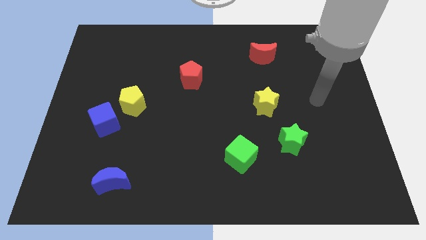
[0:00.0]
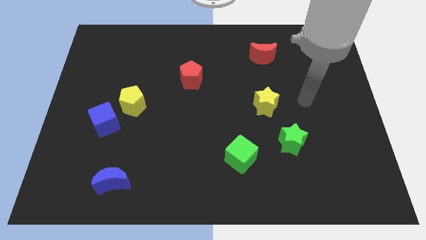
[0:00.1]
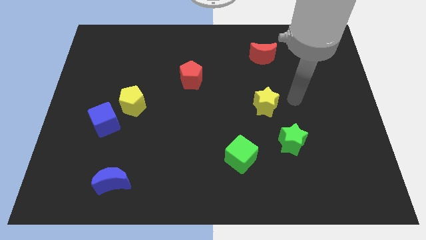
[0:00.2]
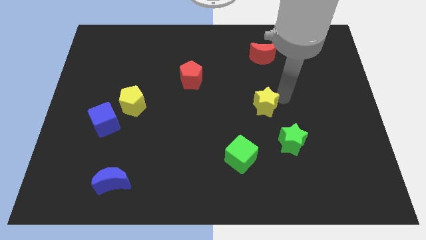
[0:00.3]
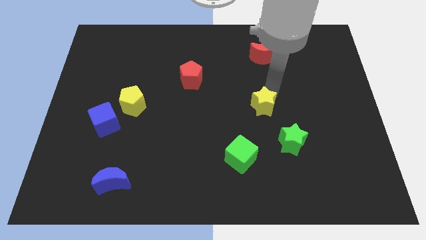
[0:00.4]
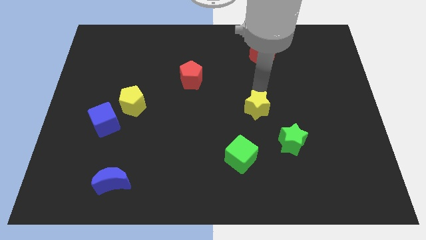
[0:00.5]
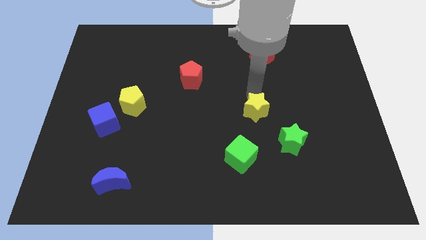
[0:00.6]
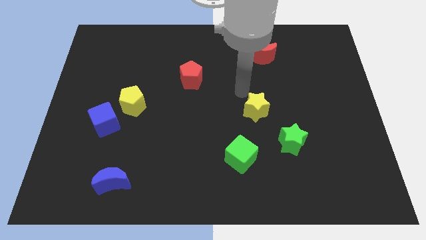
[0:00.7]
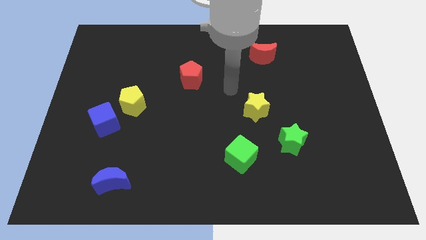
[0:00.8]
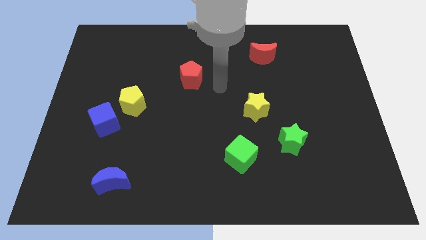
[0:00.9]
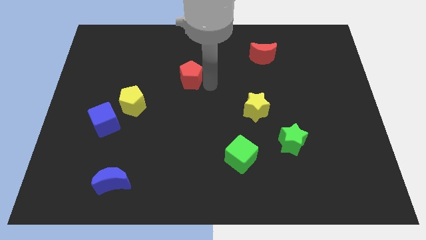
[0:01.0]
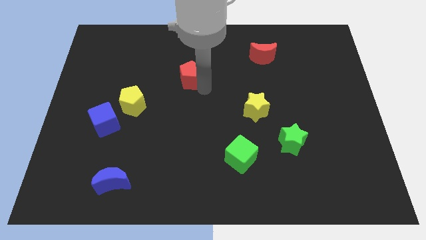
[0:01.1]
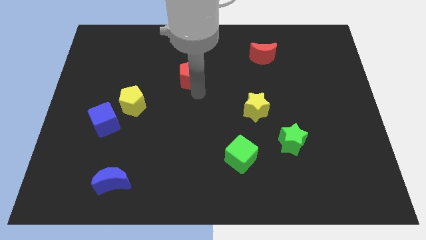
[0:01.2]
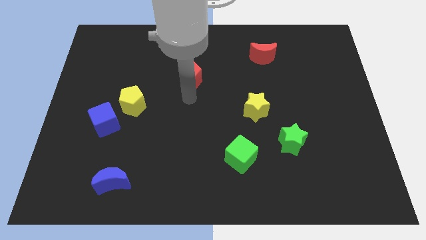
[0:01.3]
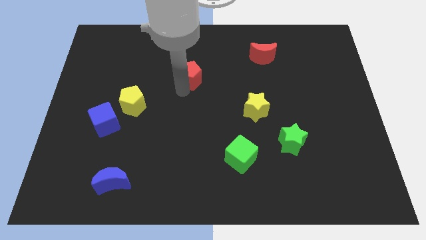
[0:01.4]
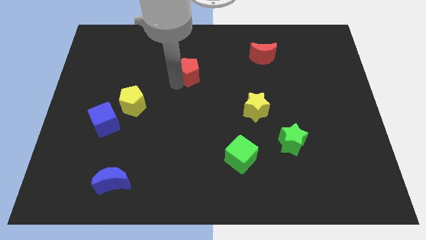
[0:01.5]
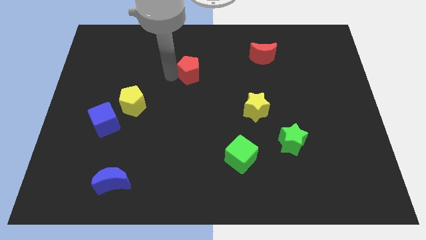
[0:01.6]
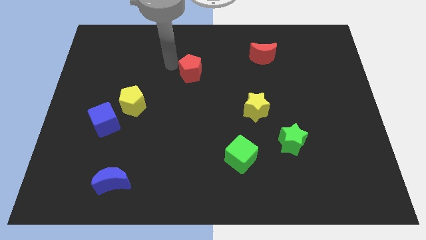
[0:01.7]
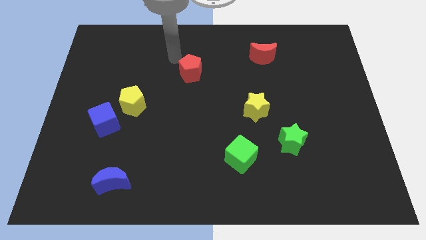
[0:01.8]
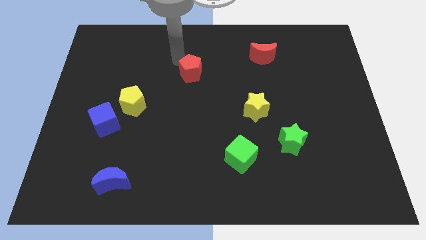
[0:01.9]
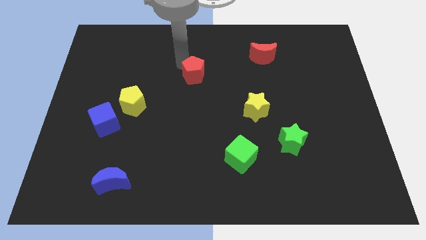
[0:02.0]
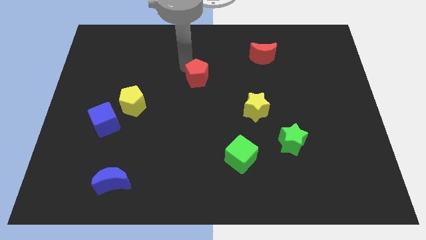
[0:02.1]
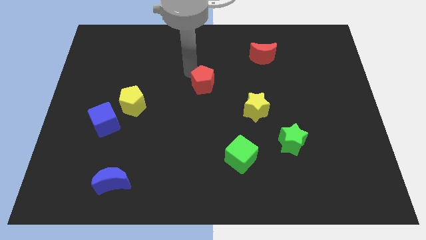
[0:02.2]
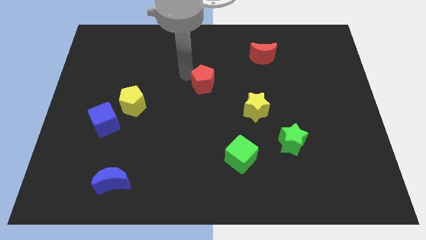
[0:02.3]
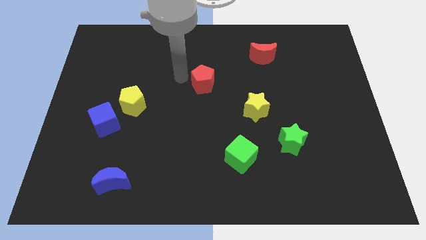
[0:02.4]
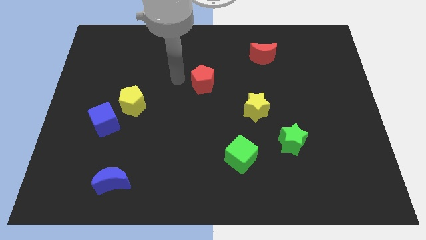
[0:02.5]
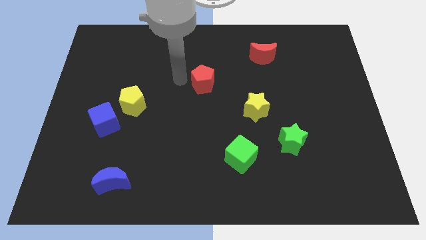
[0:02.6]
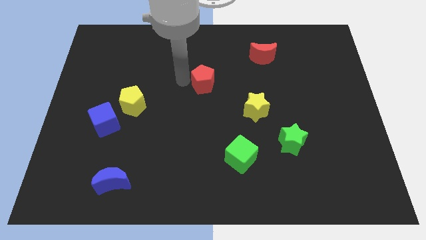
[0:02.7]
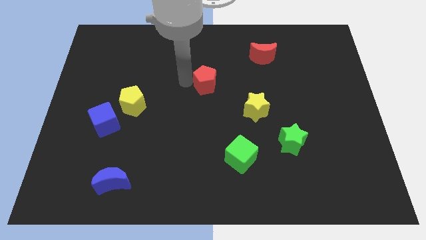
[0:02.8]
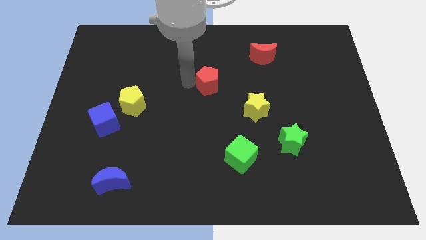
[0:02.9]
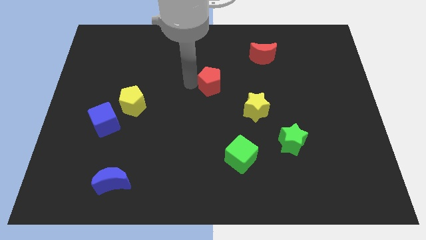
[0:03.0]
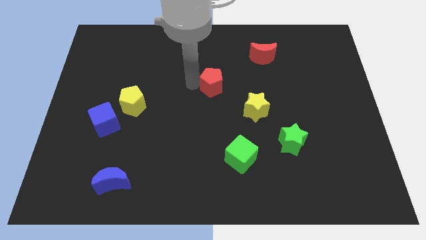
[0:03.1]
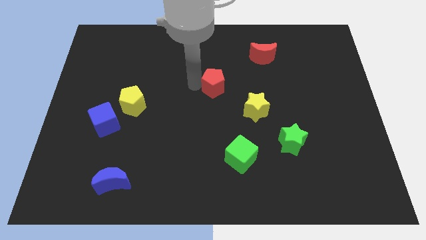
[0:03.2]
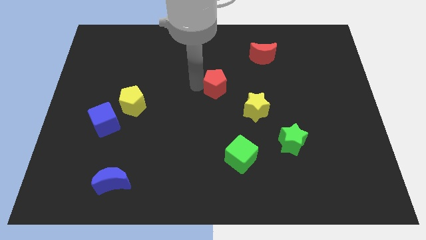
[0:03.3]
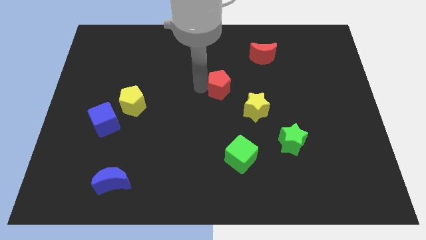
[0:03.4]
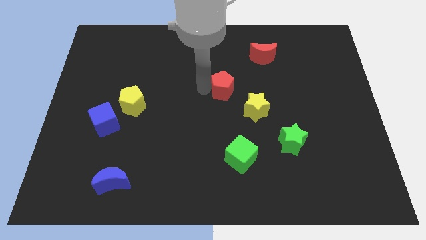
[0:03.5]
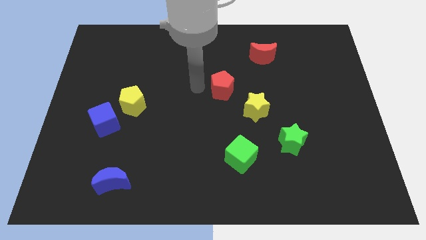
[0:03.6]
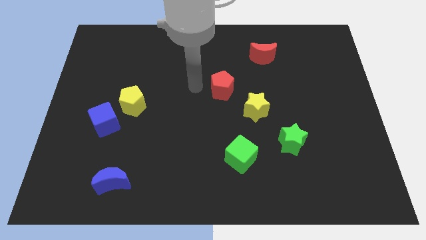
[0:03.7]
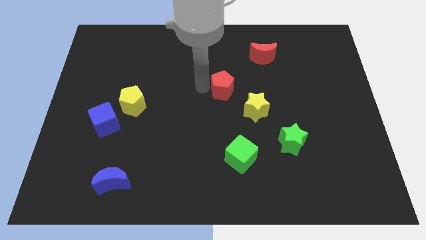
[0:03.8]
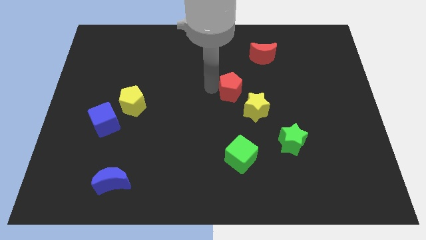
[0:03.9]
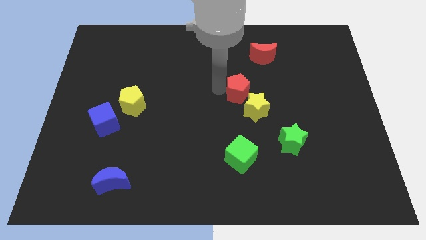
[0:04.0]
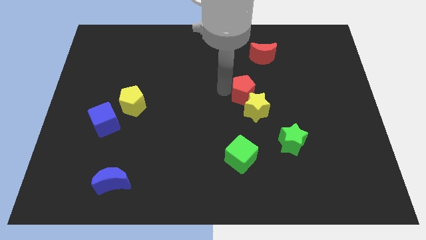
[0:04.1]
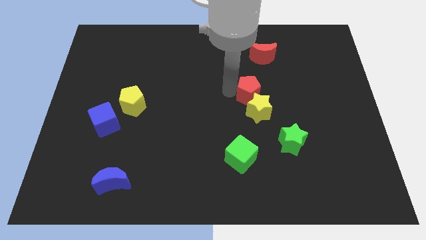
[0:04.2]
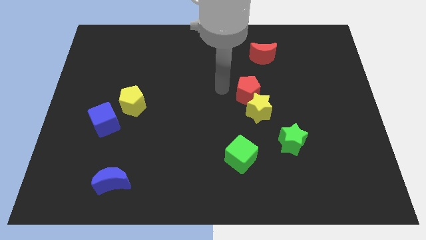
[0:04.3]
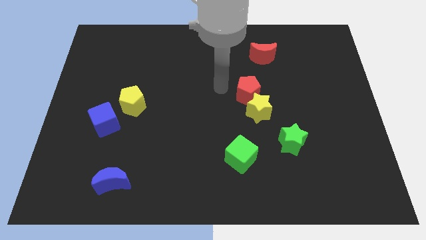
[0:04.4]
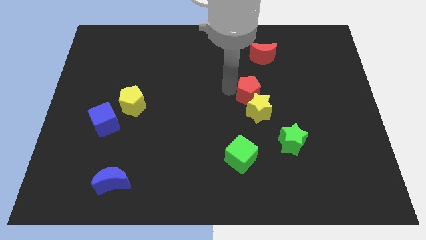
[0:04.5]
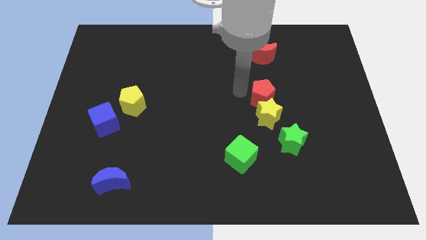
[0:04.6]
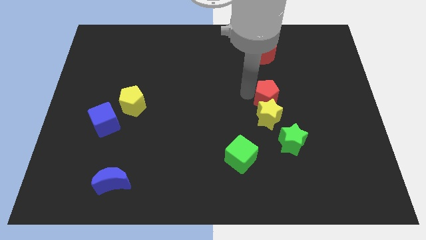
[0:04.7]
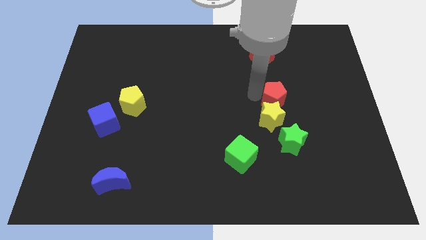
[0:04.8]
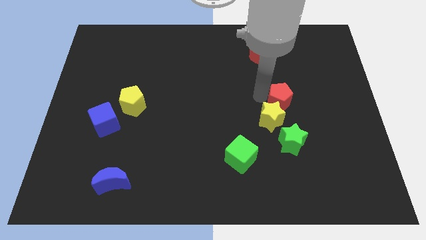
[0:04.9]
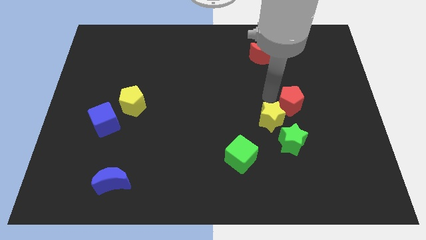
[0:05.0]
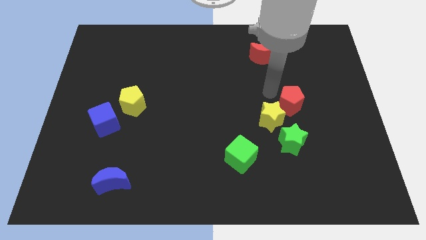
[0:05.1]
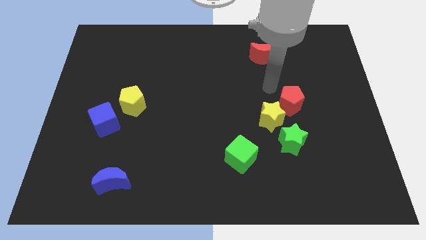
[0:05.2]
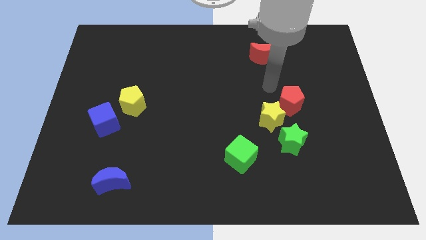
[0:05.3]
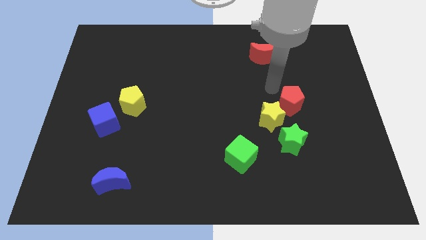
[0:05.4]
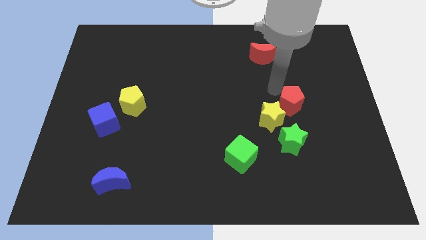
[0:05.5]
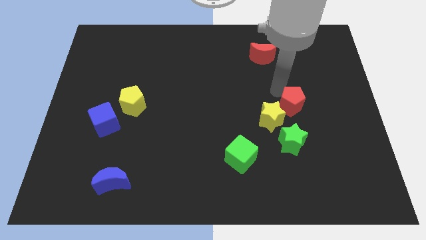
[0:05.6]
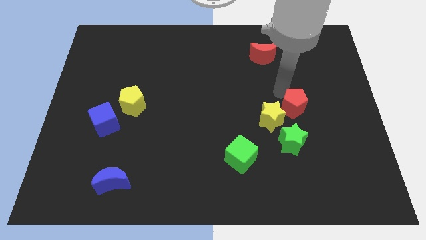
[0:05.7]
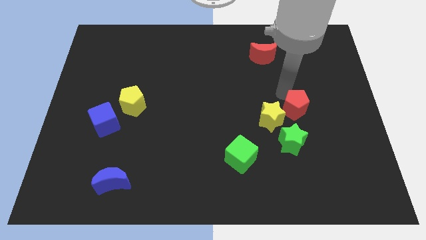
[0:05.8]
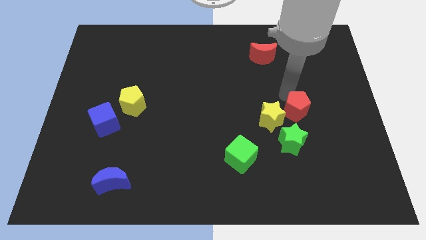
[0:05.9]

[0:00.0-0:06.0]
push the red pentagon diagonally up and to the right of the green star

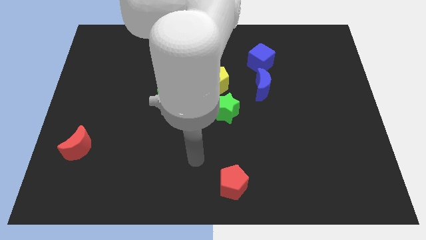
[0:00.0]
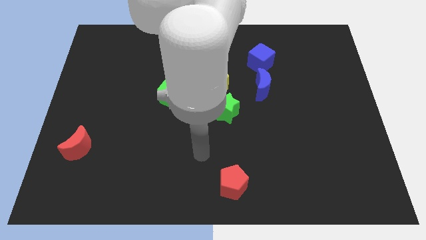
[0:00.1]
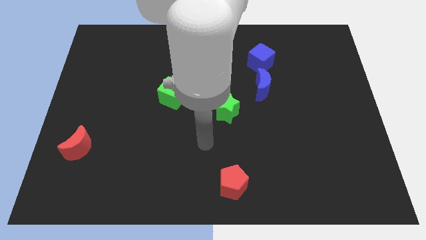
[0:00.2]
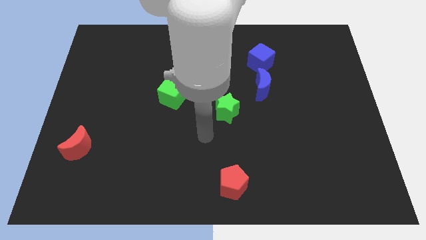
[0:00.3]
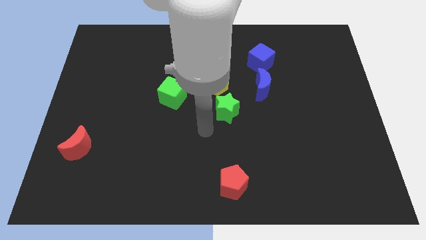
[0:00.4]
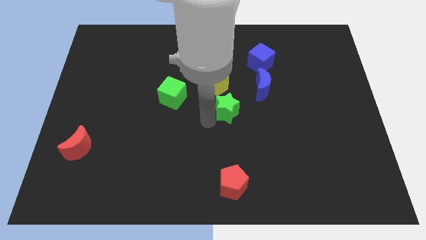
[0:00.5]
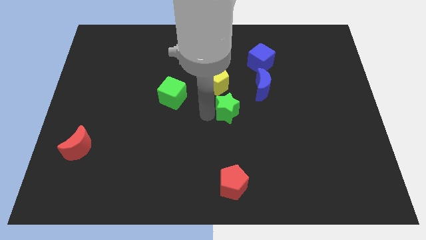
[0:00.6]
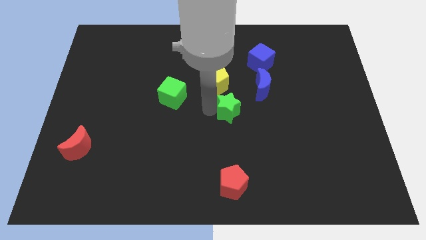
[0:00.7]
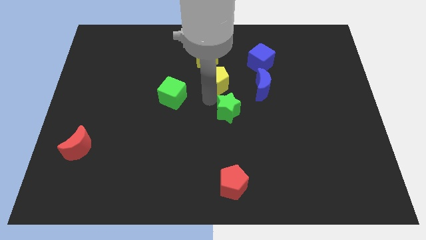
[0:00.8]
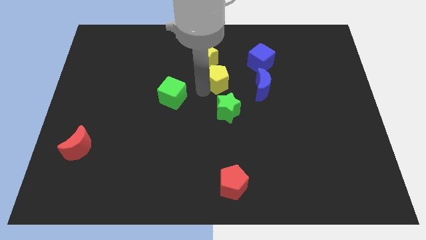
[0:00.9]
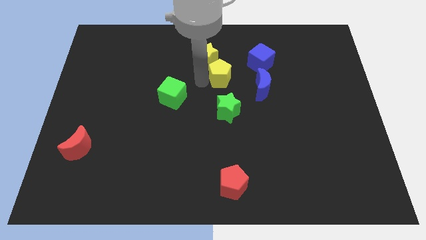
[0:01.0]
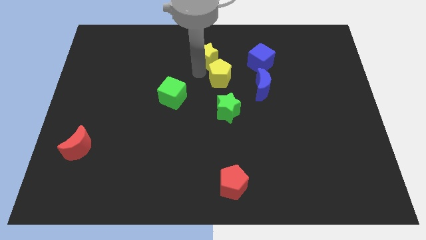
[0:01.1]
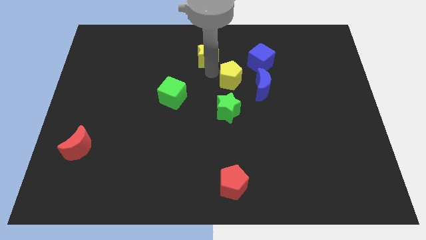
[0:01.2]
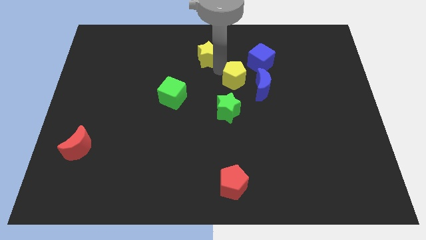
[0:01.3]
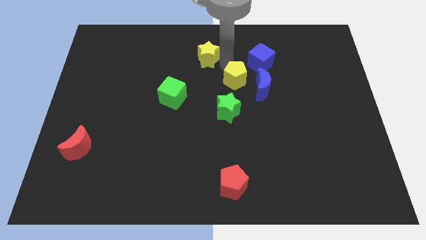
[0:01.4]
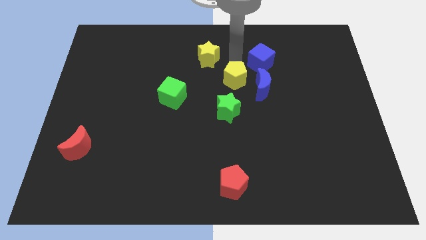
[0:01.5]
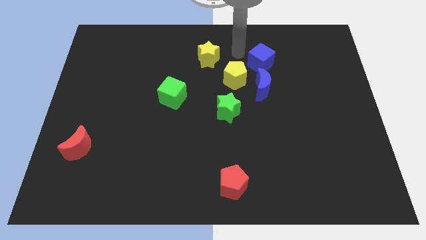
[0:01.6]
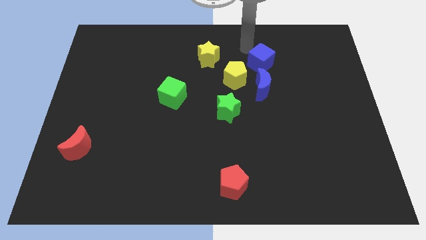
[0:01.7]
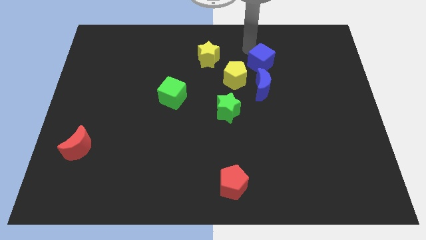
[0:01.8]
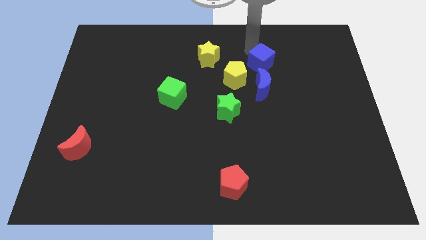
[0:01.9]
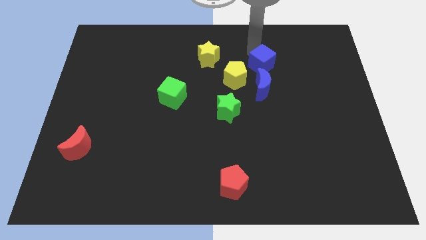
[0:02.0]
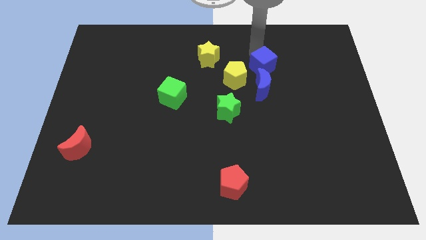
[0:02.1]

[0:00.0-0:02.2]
put the blue cube right of the yellow pentagon
